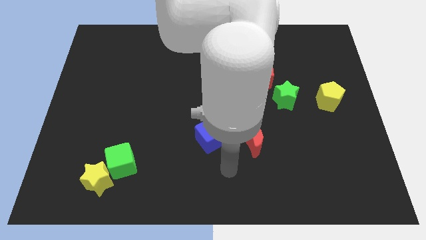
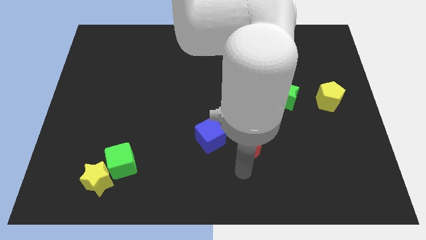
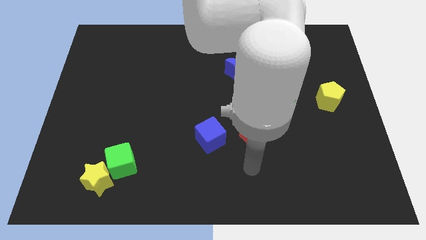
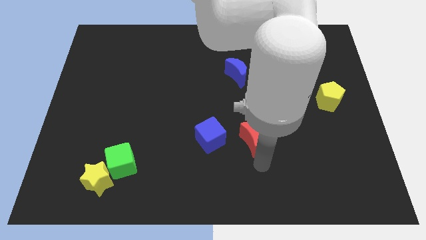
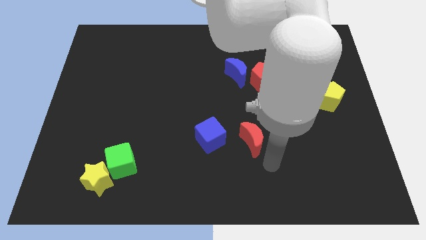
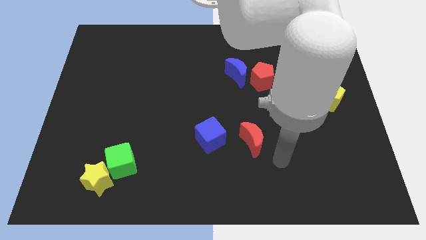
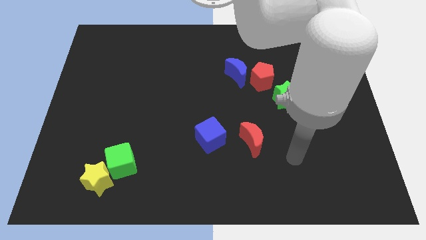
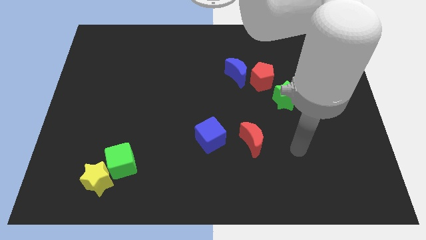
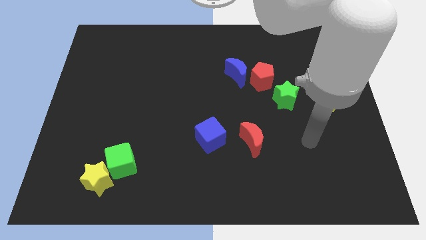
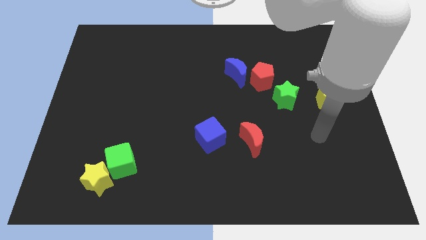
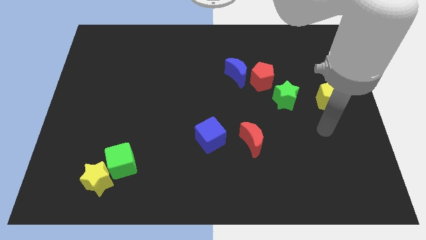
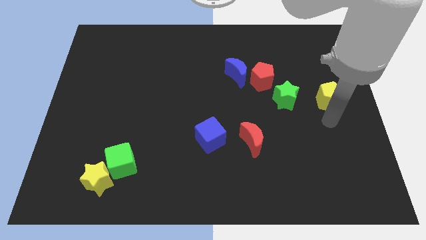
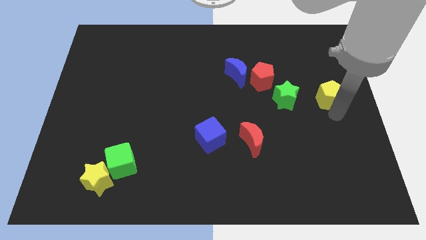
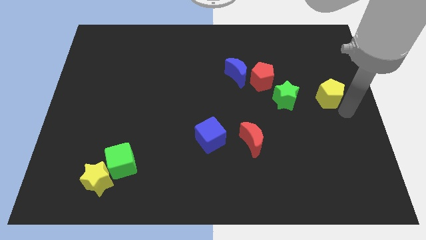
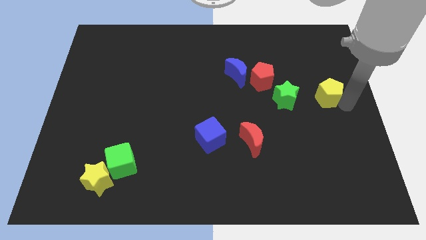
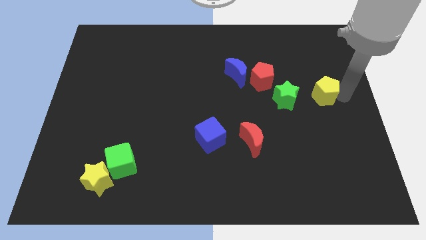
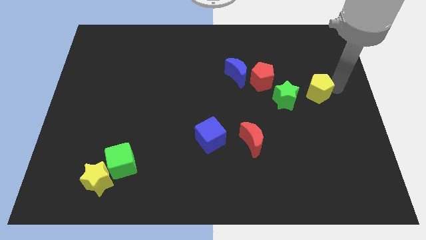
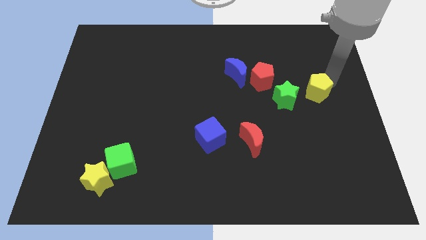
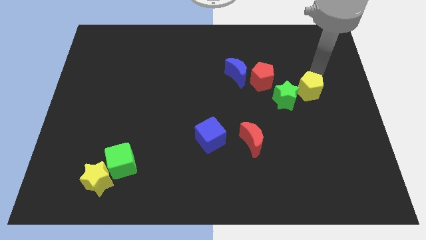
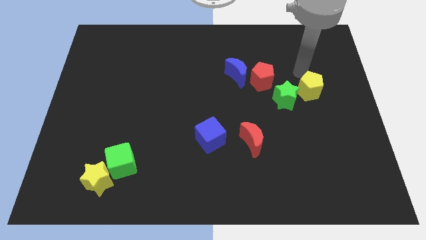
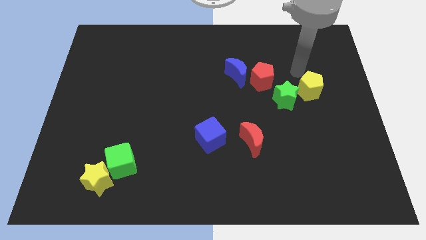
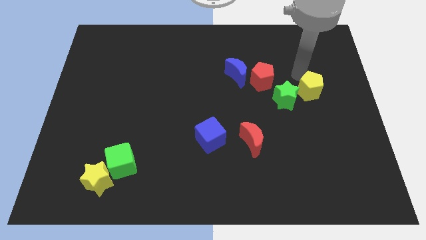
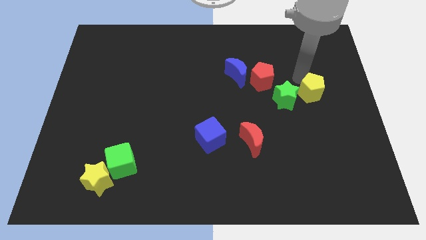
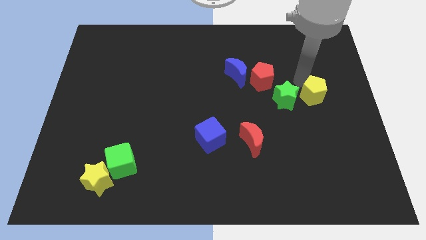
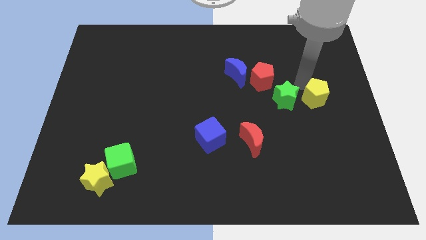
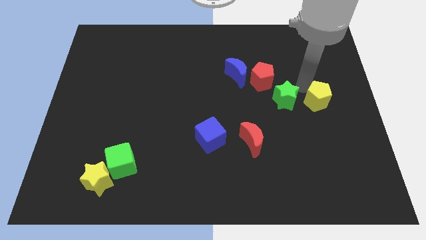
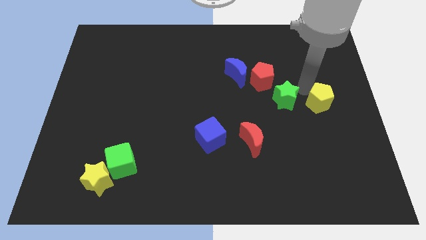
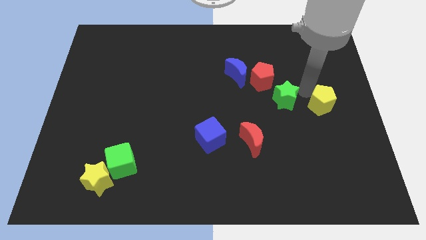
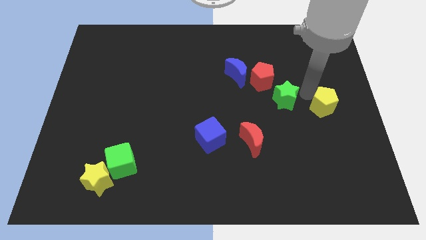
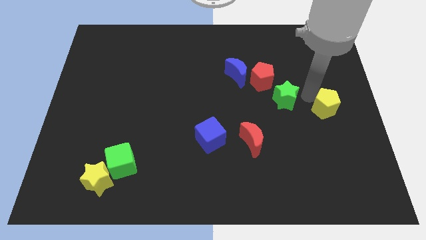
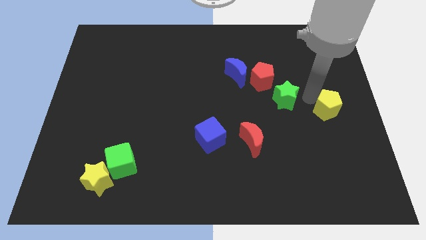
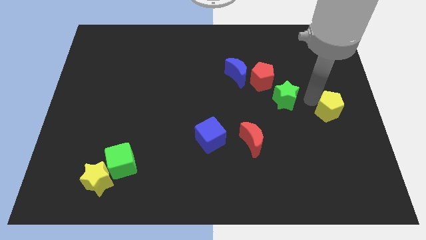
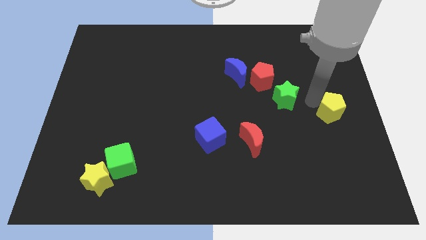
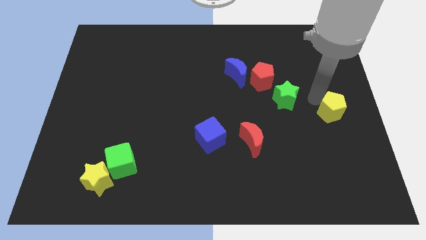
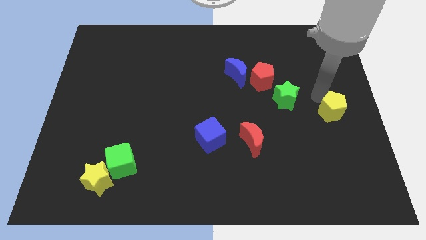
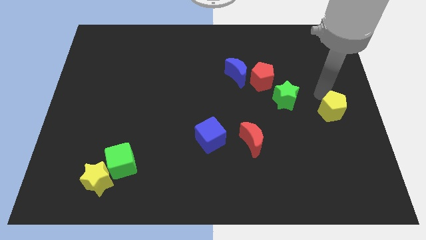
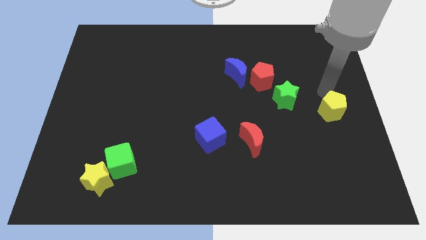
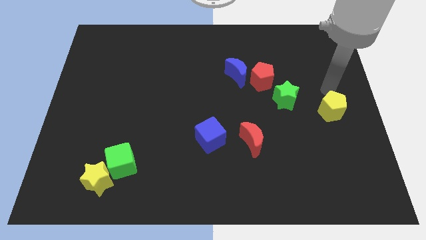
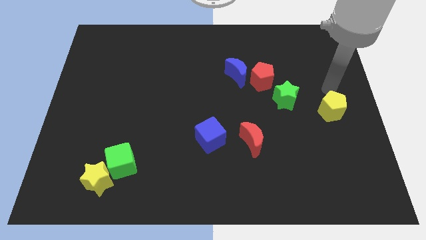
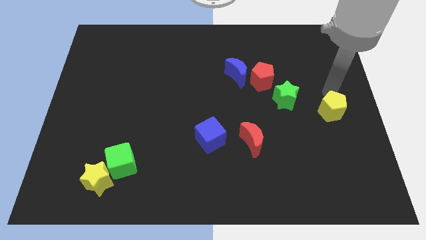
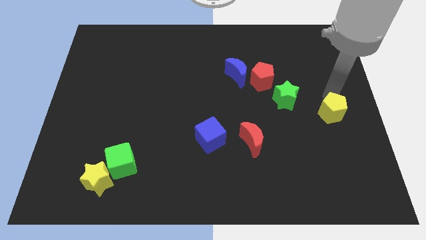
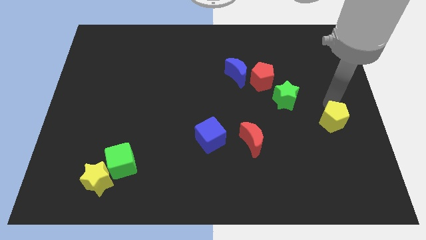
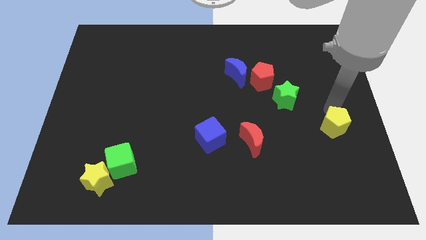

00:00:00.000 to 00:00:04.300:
push the yellow pentagon a bit downwards

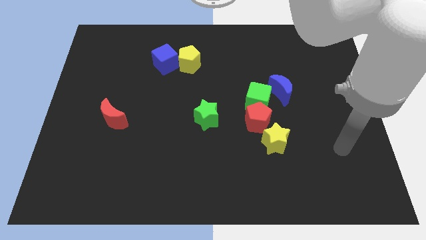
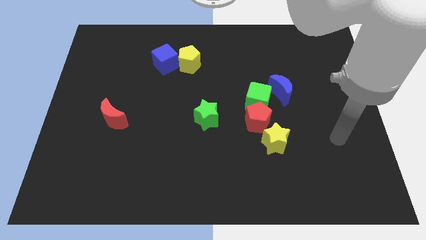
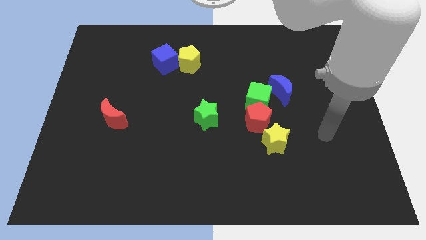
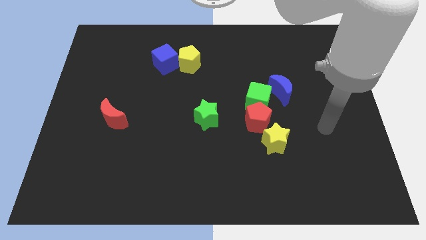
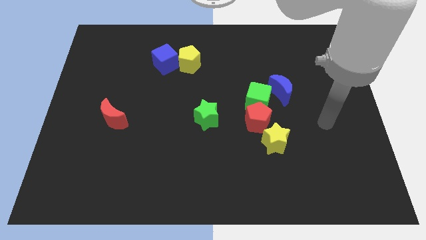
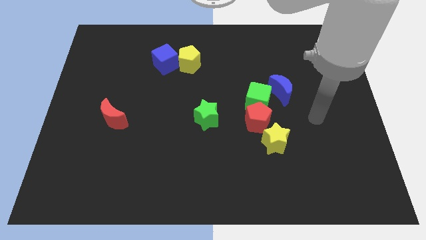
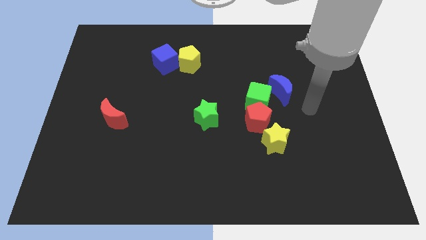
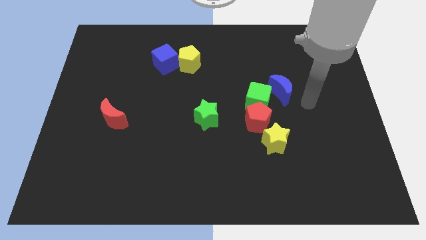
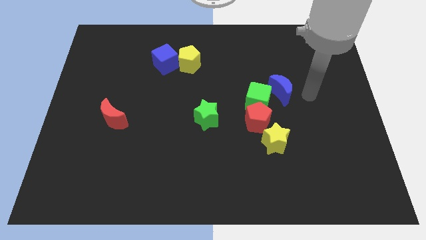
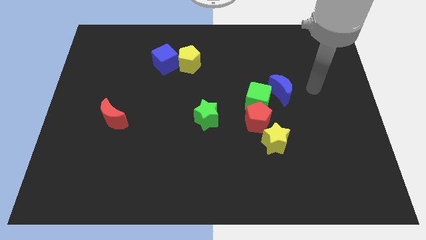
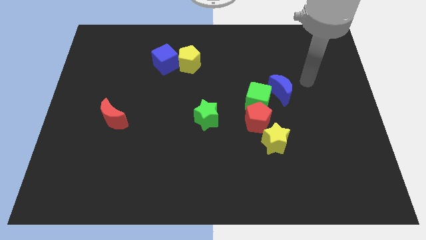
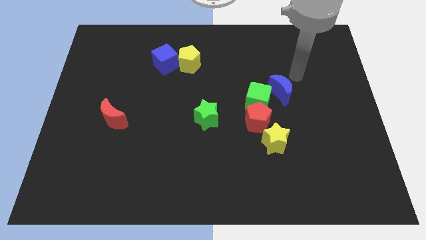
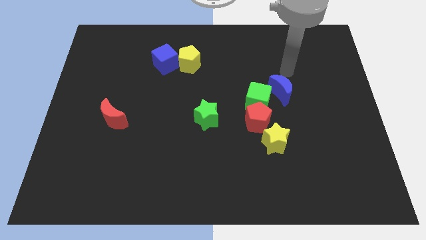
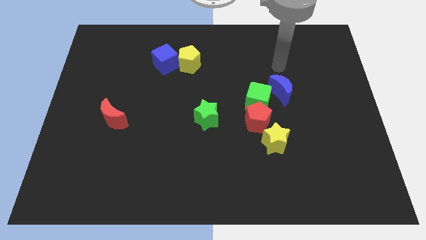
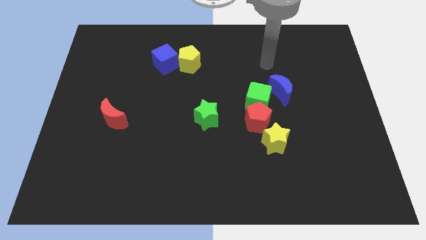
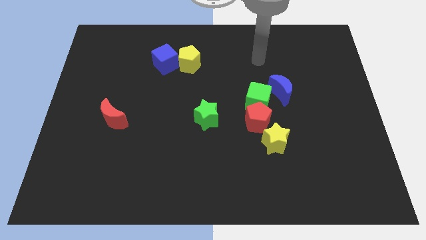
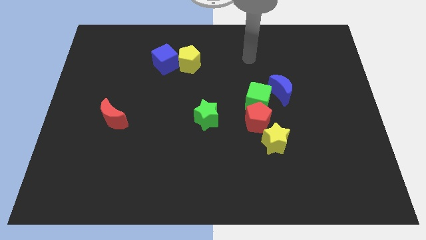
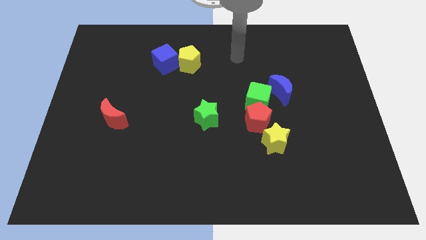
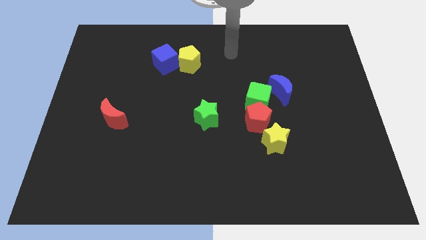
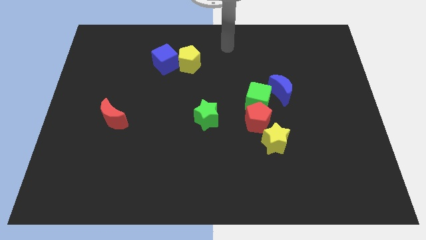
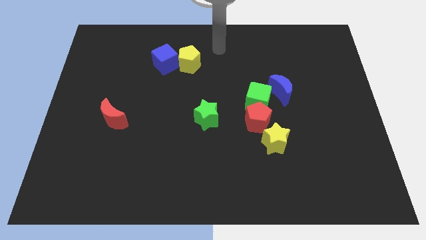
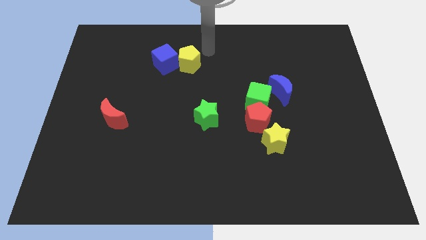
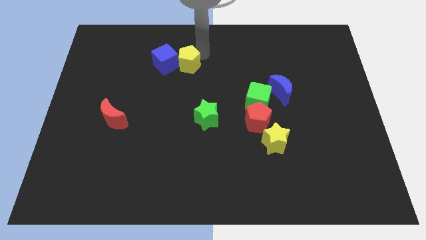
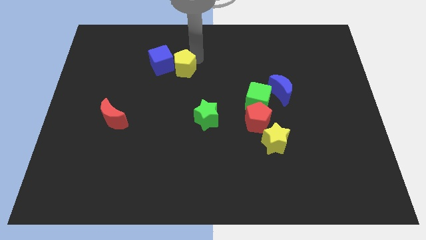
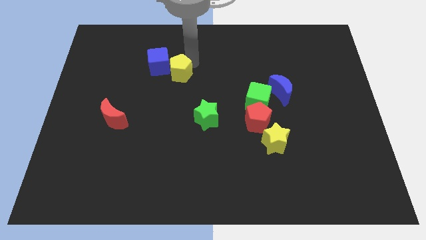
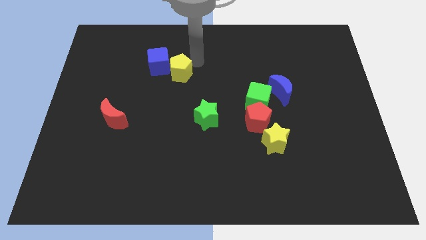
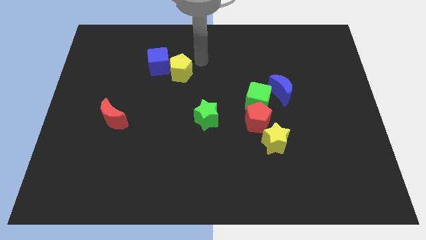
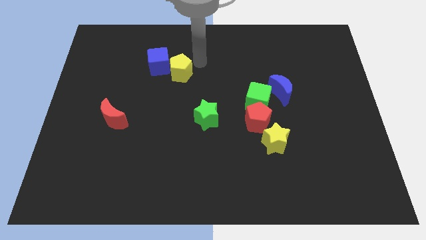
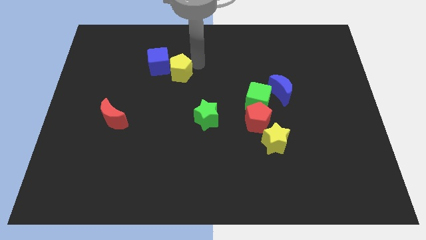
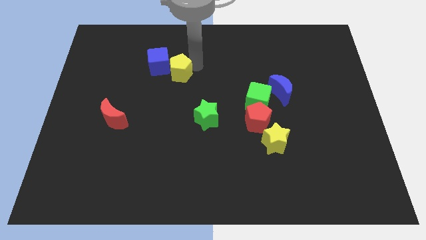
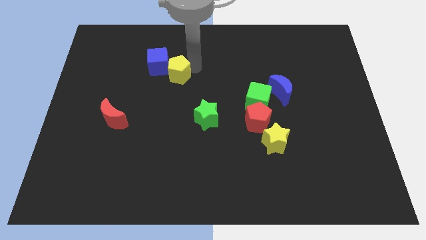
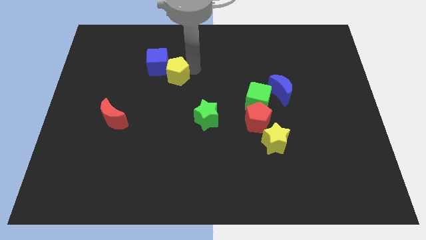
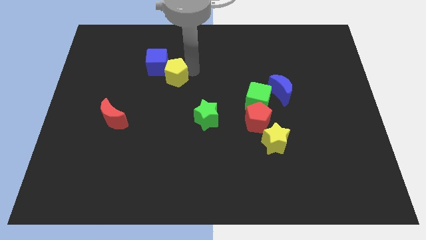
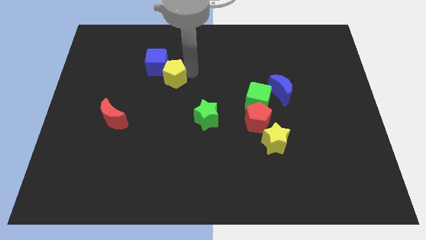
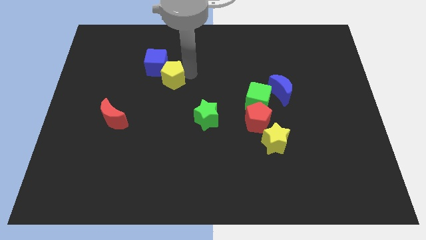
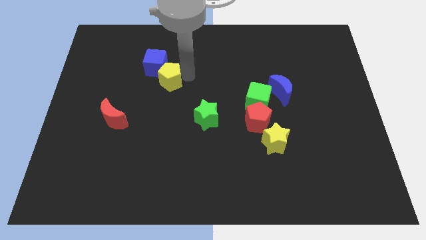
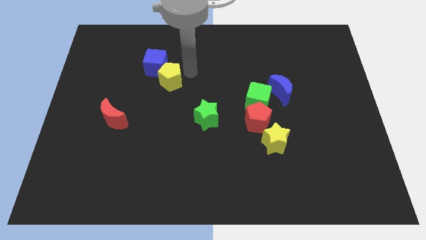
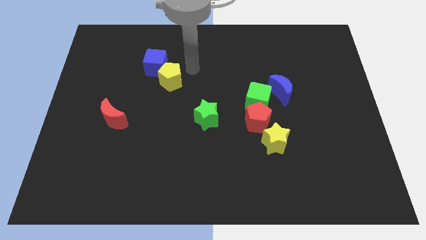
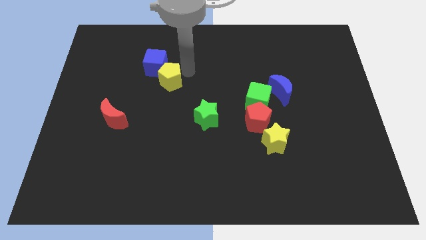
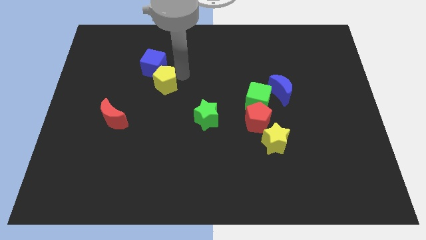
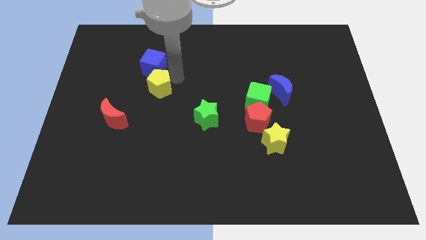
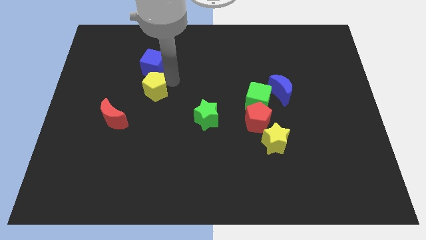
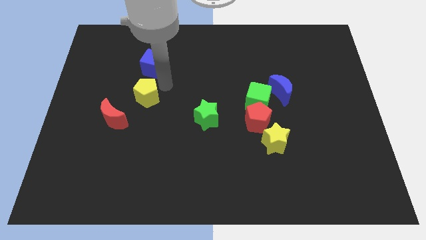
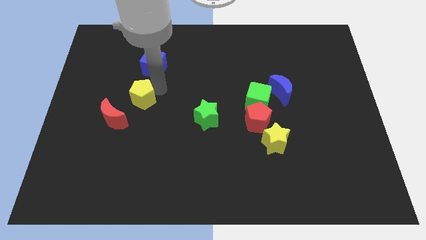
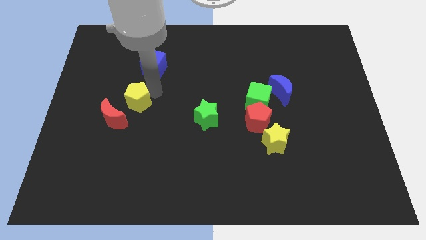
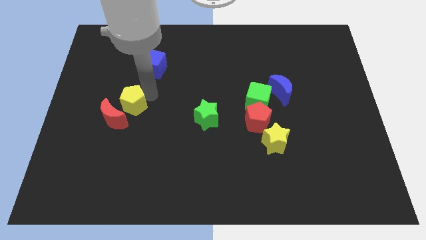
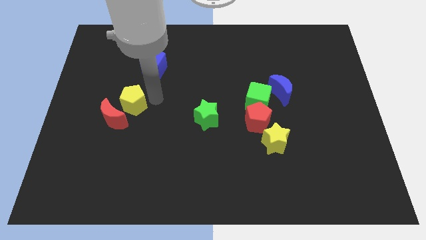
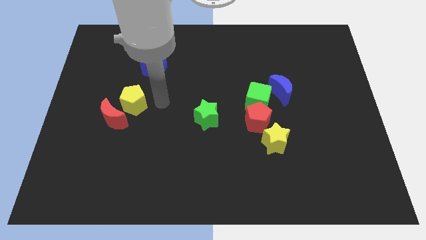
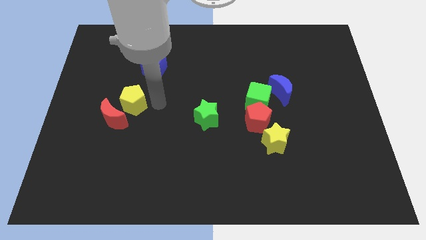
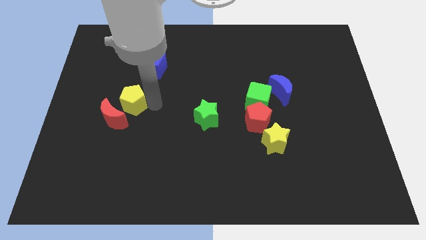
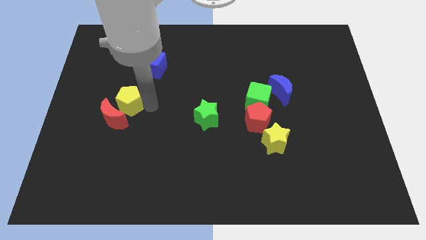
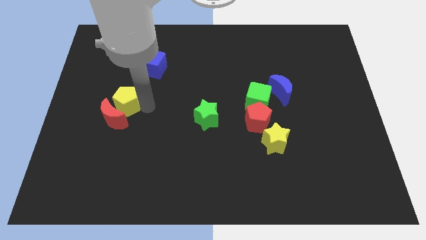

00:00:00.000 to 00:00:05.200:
slide the yellow pentagon diagonally down and left
